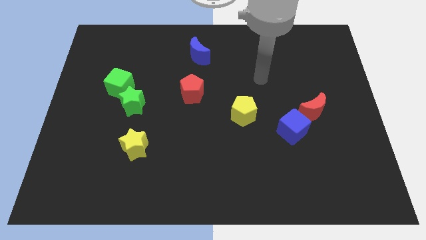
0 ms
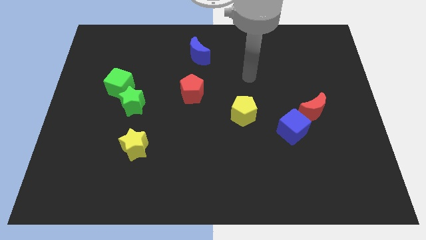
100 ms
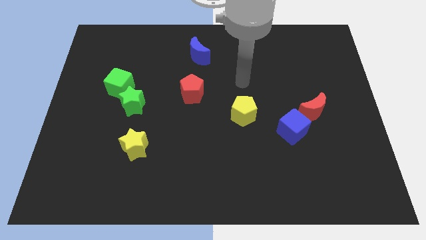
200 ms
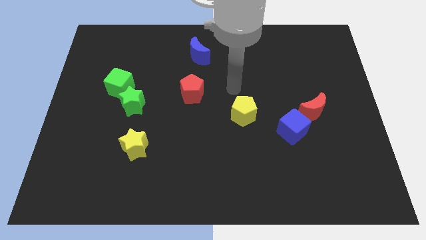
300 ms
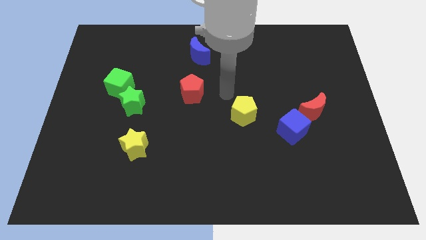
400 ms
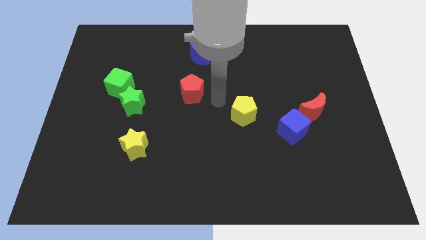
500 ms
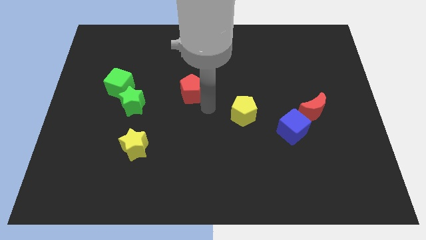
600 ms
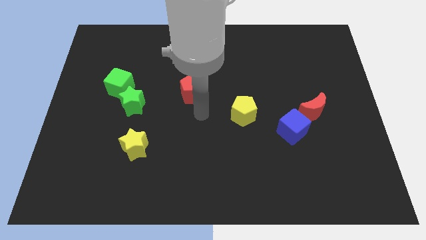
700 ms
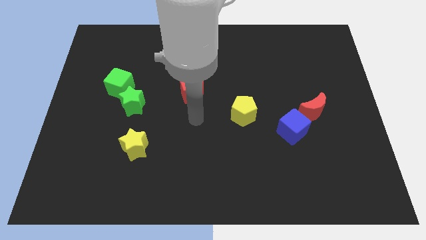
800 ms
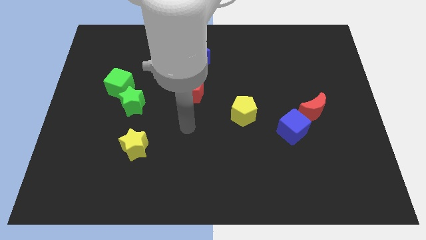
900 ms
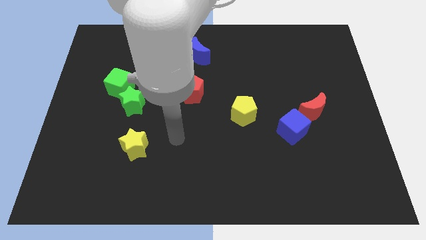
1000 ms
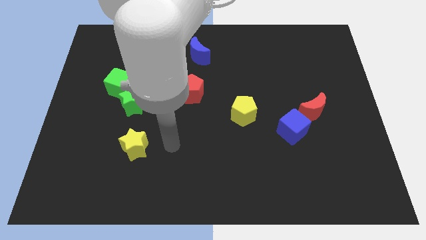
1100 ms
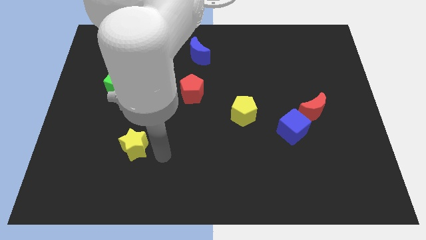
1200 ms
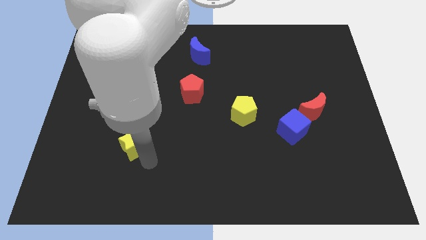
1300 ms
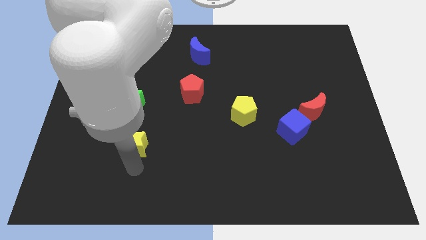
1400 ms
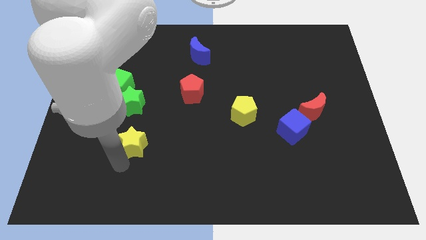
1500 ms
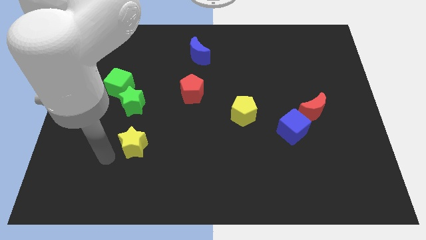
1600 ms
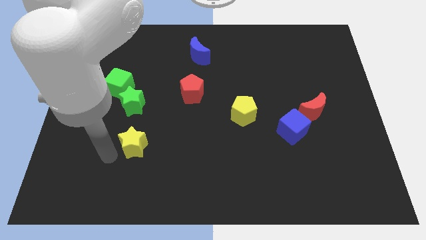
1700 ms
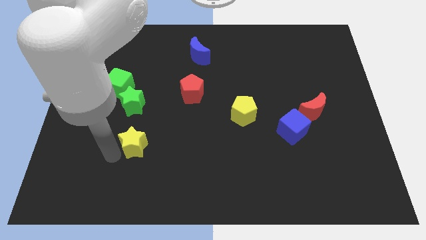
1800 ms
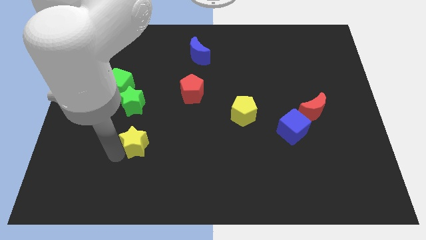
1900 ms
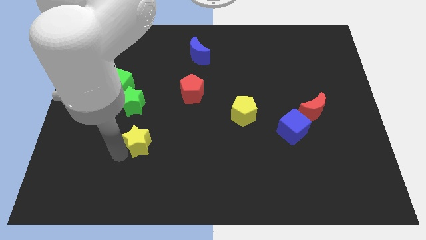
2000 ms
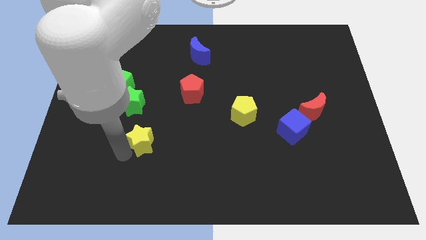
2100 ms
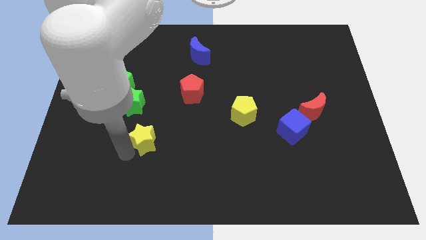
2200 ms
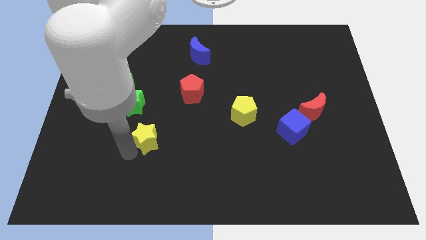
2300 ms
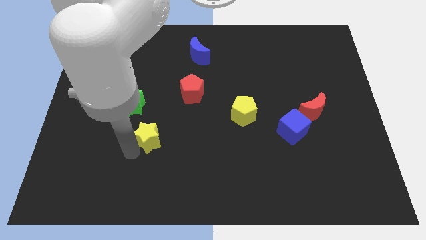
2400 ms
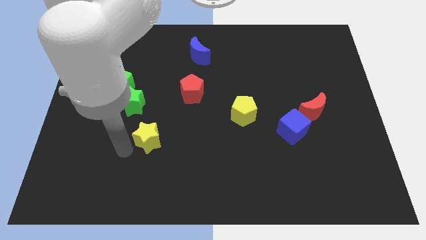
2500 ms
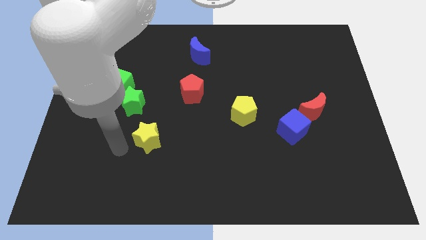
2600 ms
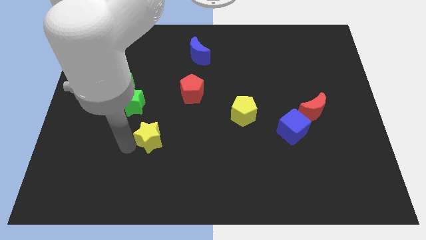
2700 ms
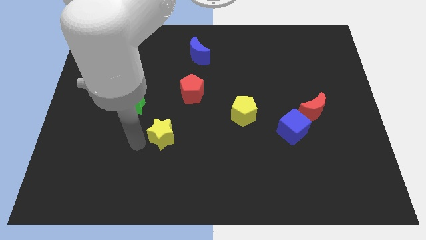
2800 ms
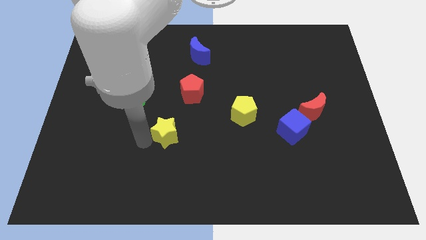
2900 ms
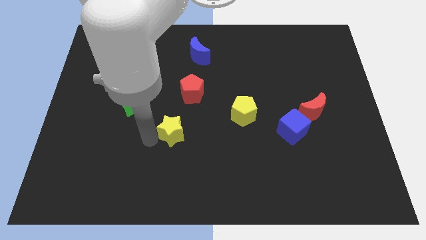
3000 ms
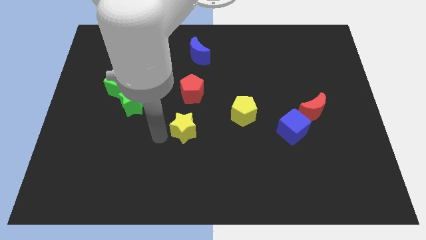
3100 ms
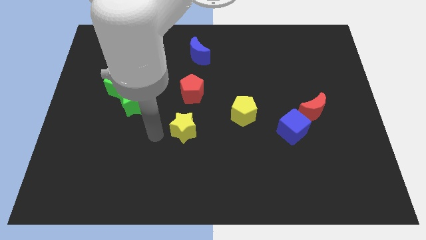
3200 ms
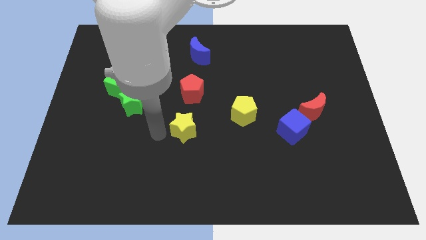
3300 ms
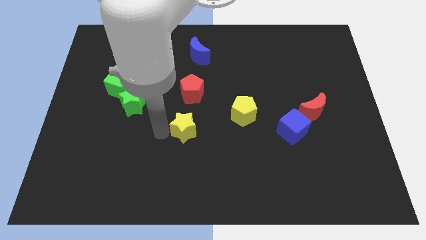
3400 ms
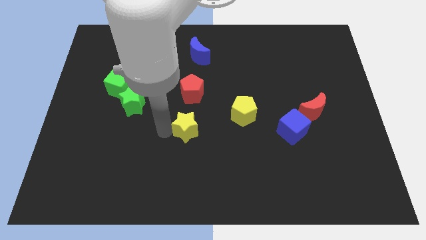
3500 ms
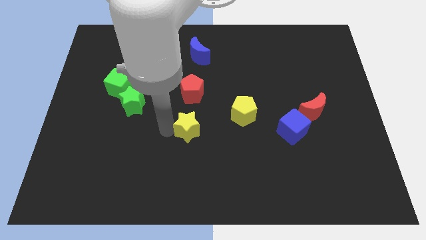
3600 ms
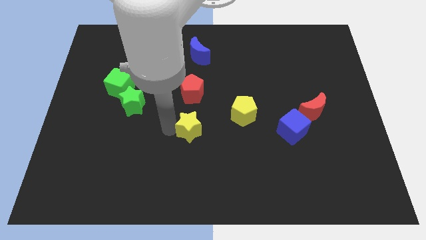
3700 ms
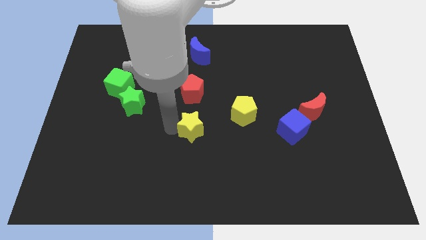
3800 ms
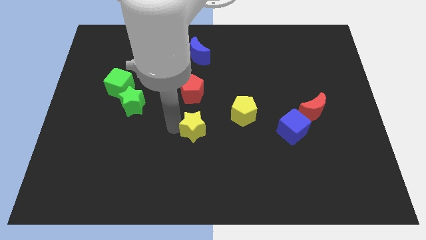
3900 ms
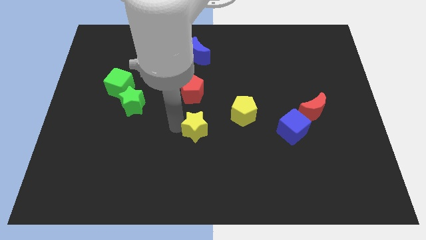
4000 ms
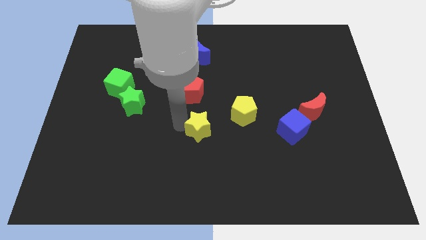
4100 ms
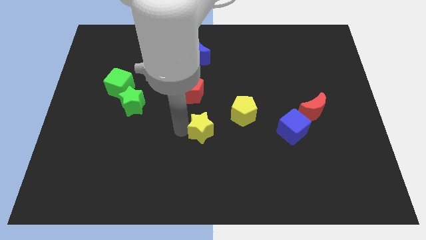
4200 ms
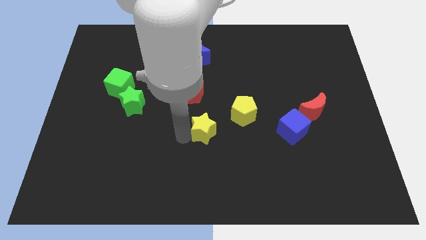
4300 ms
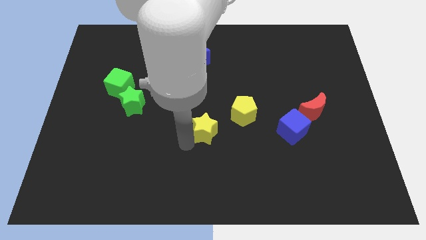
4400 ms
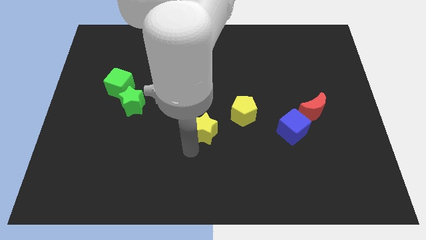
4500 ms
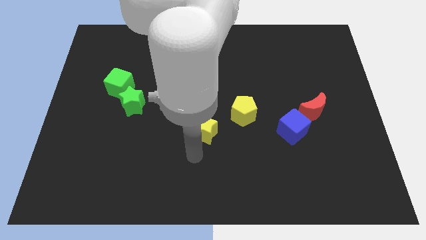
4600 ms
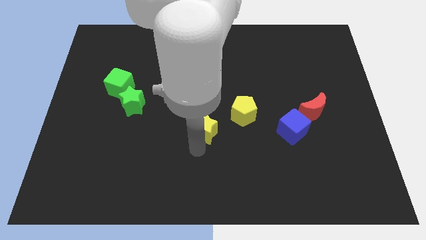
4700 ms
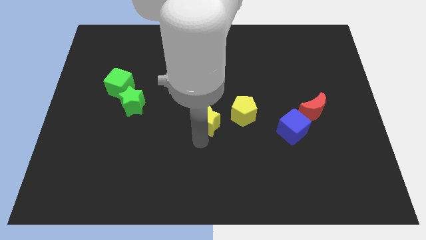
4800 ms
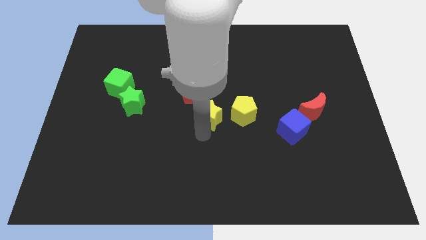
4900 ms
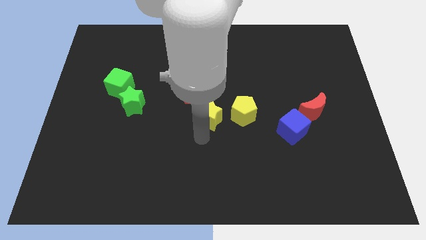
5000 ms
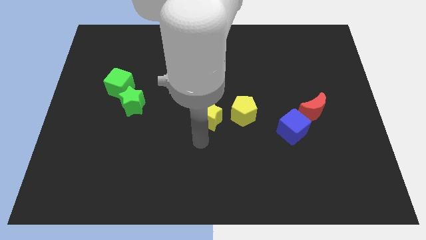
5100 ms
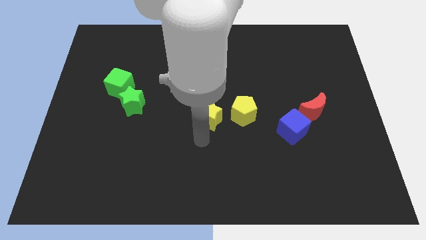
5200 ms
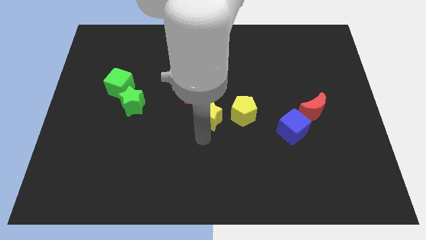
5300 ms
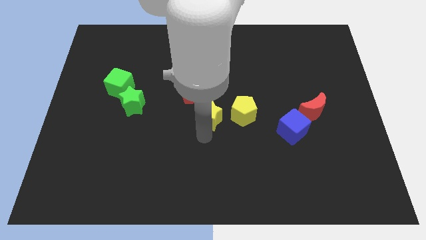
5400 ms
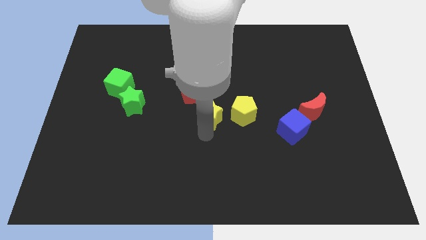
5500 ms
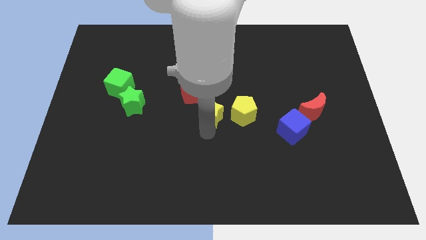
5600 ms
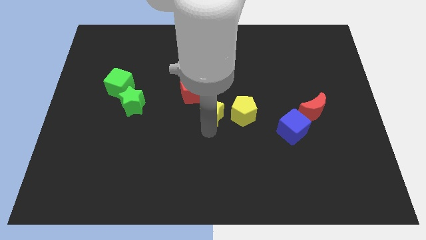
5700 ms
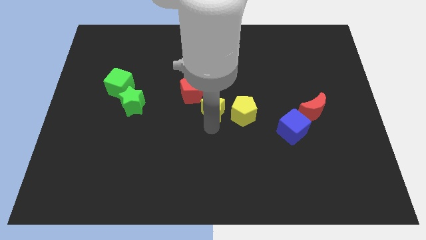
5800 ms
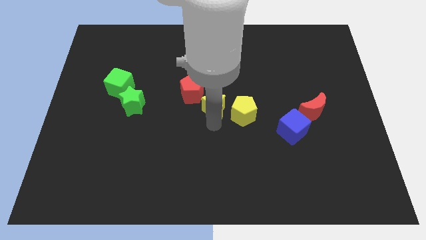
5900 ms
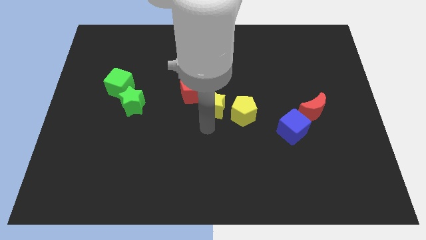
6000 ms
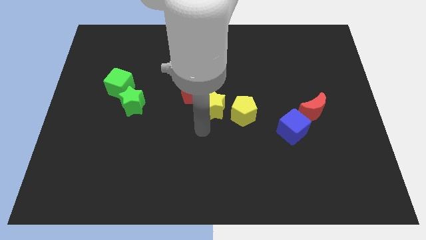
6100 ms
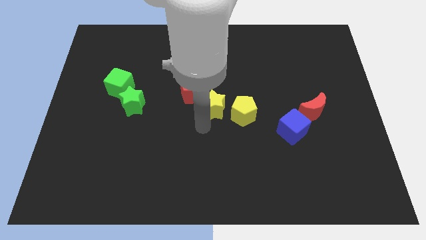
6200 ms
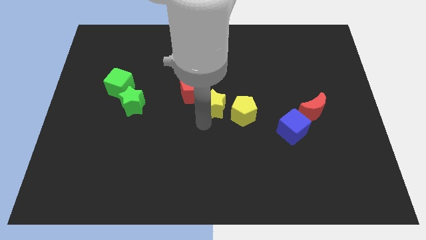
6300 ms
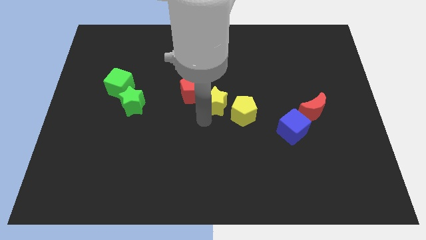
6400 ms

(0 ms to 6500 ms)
slide the yellow star up and to the right diagonally

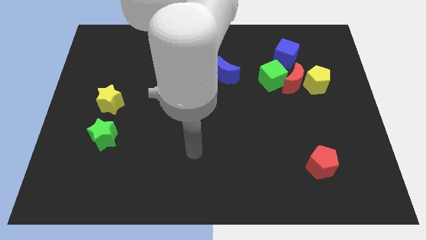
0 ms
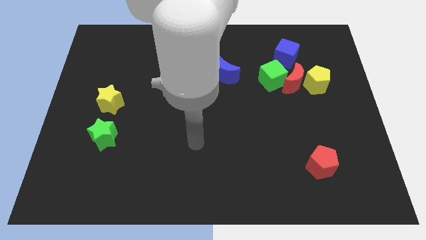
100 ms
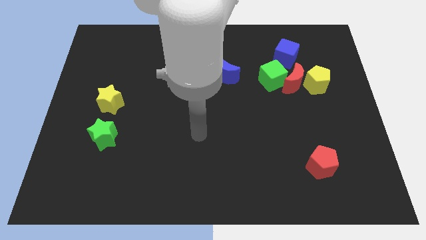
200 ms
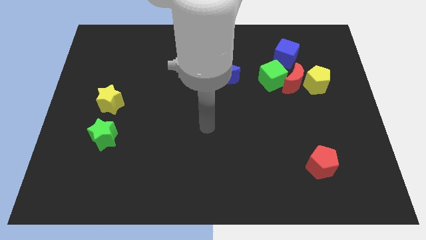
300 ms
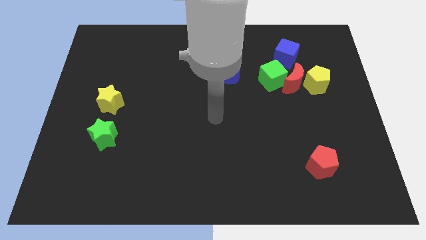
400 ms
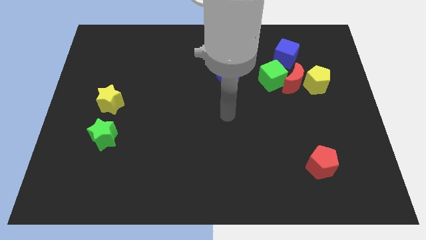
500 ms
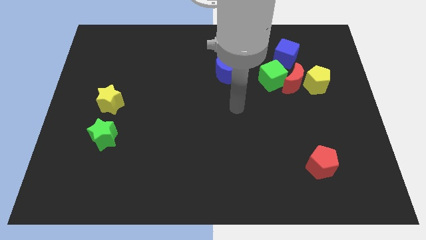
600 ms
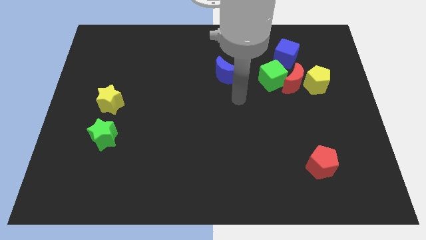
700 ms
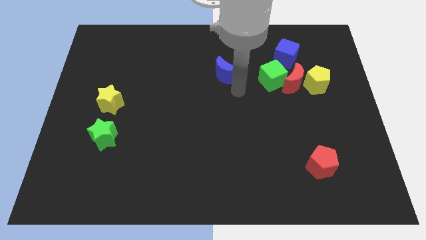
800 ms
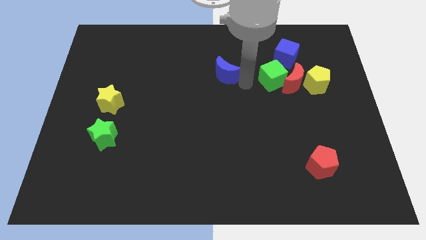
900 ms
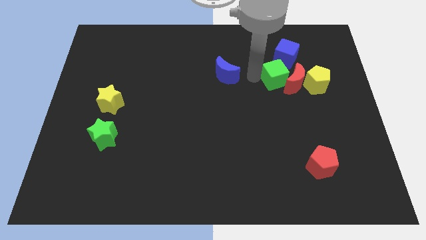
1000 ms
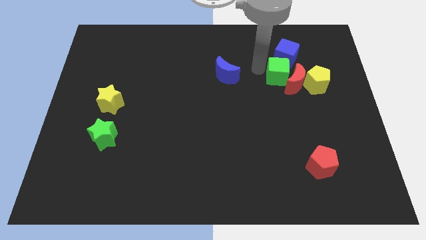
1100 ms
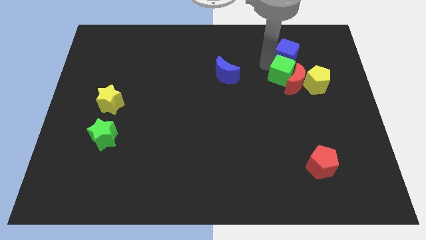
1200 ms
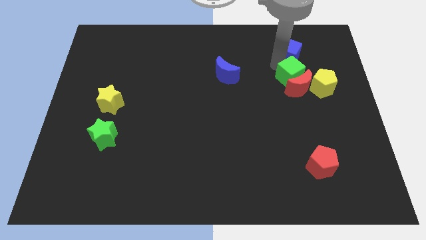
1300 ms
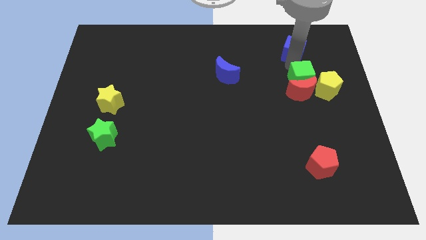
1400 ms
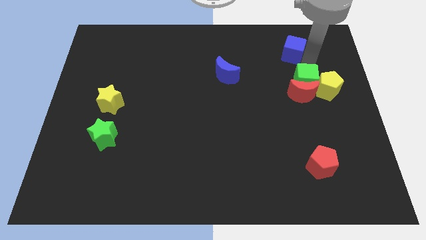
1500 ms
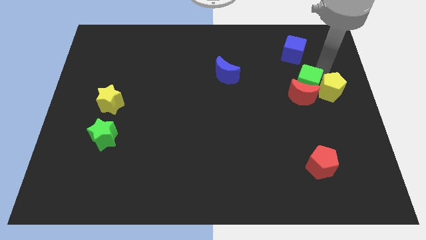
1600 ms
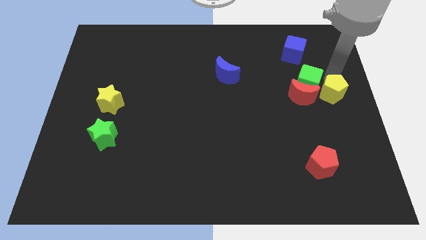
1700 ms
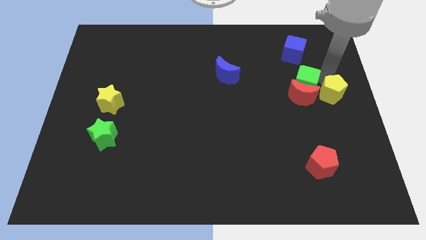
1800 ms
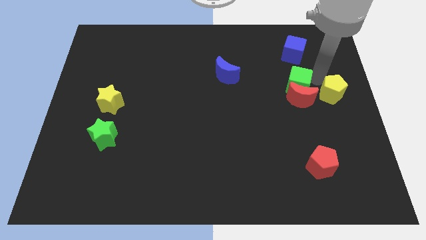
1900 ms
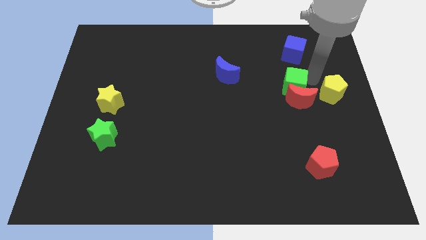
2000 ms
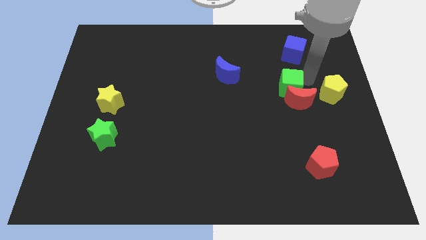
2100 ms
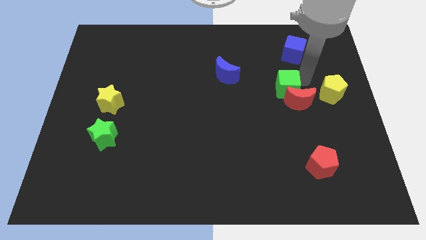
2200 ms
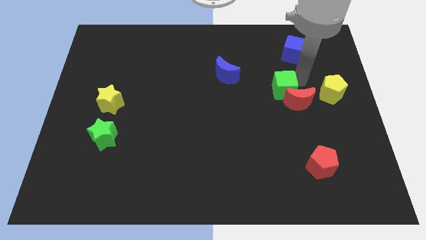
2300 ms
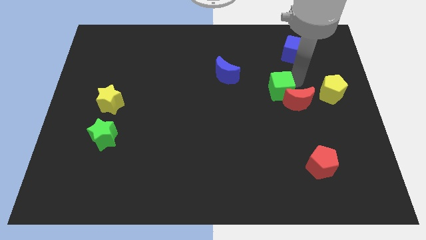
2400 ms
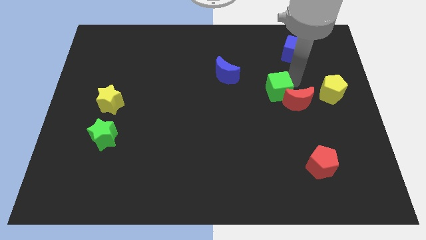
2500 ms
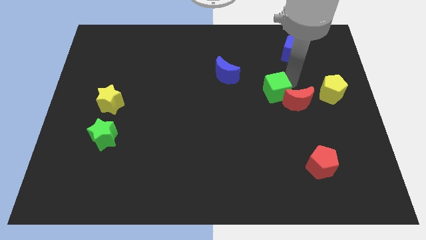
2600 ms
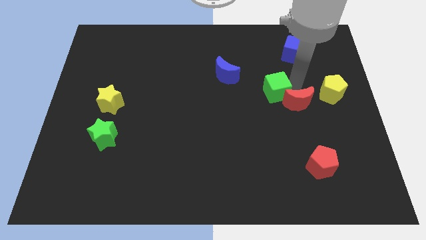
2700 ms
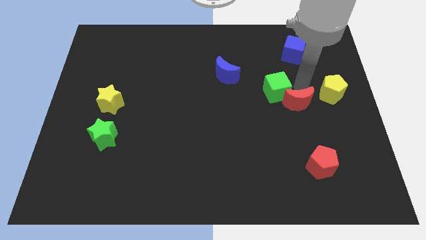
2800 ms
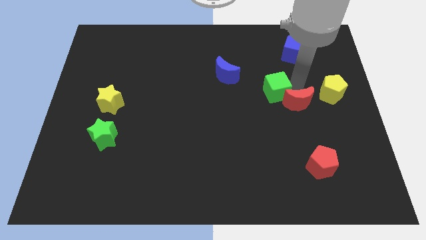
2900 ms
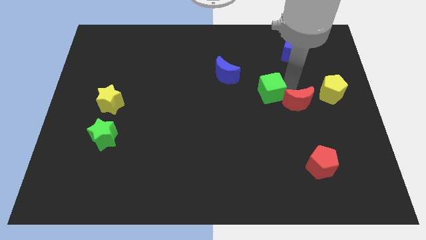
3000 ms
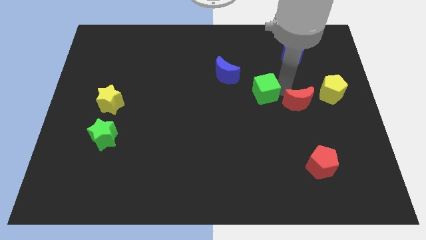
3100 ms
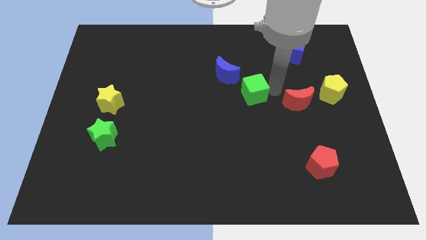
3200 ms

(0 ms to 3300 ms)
slide the green cube diagonally downwards and left a little bit
